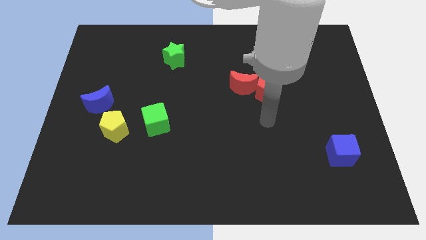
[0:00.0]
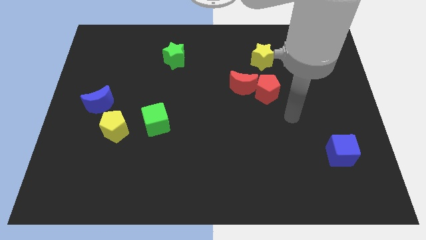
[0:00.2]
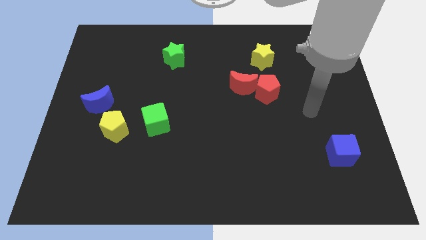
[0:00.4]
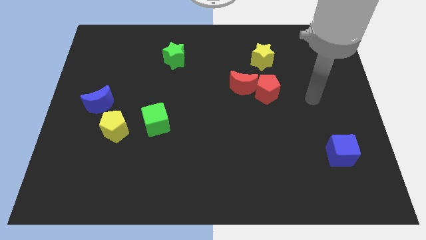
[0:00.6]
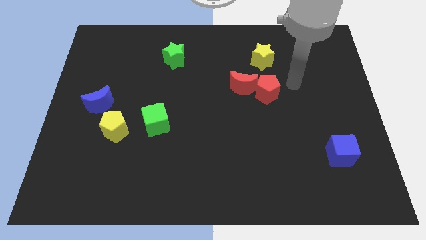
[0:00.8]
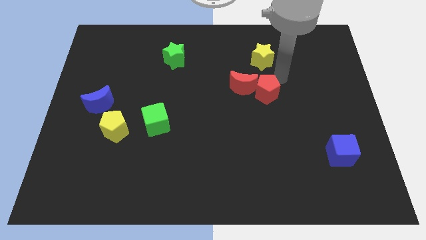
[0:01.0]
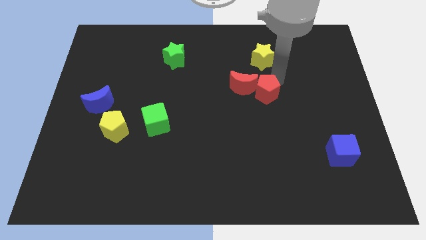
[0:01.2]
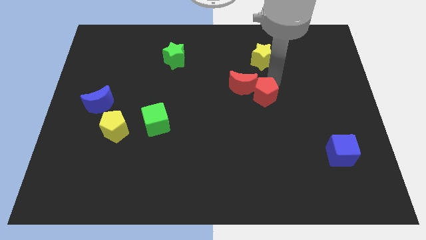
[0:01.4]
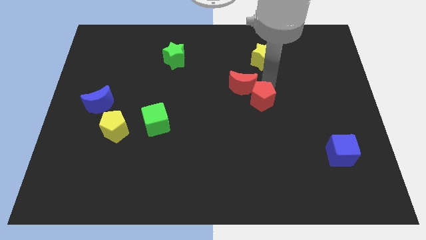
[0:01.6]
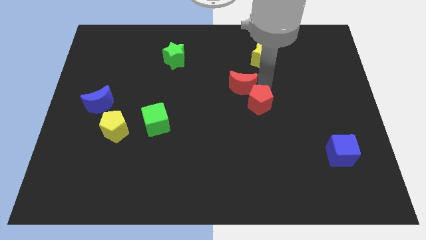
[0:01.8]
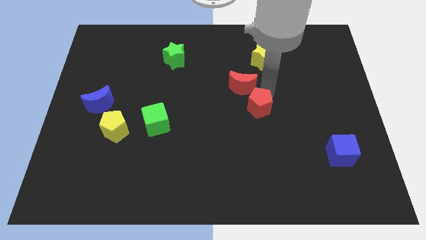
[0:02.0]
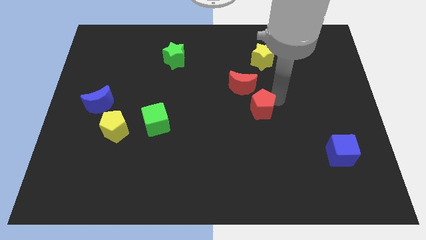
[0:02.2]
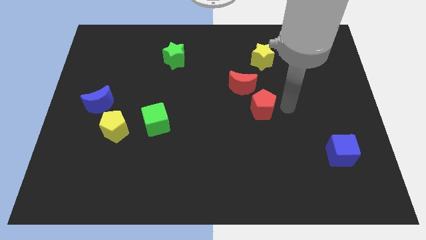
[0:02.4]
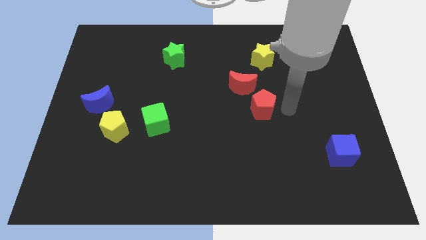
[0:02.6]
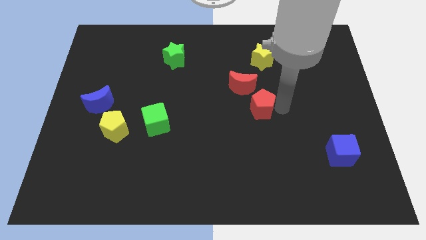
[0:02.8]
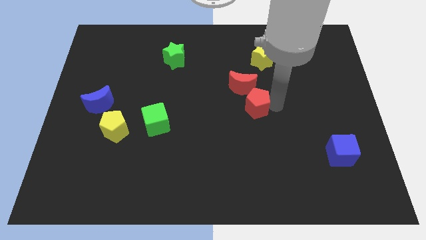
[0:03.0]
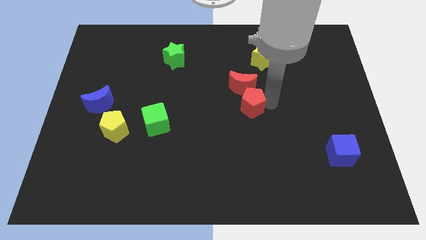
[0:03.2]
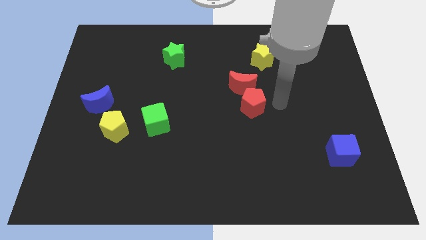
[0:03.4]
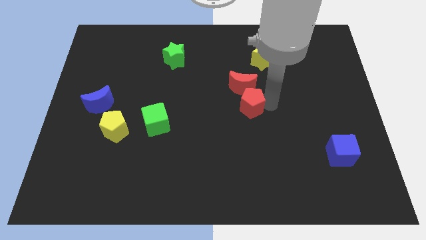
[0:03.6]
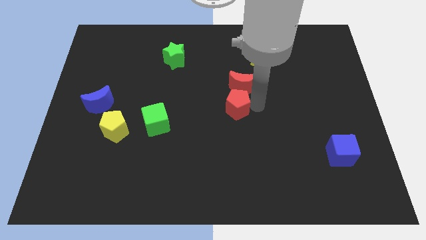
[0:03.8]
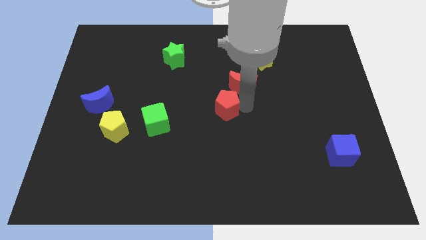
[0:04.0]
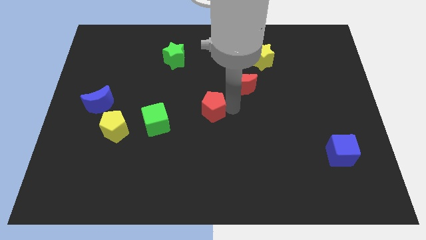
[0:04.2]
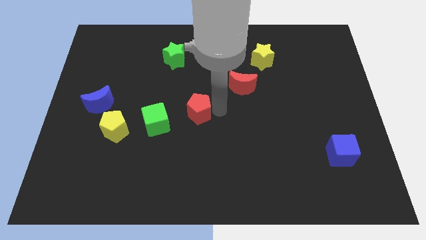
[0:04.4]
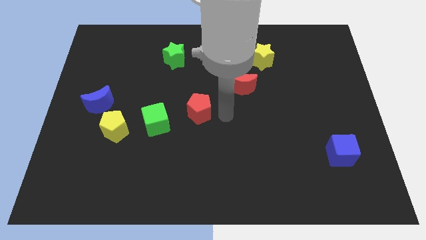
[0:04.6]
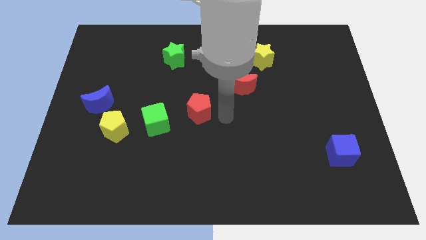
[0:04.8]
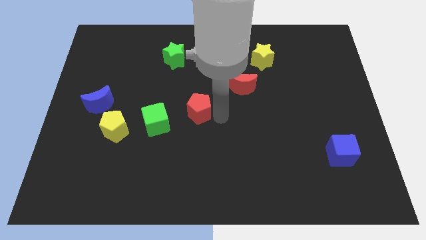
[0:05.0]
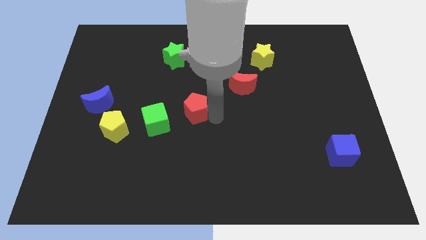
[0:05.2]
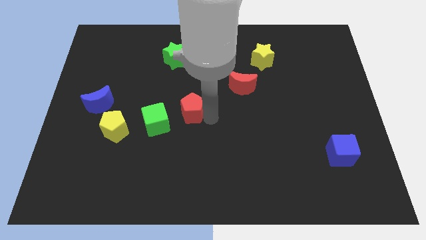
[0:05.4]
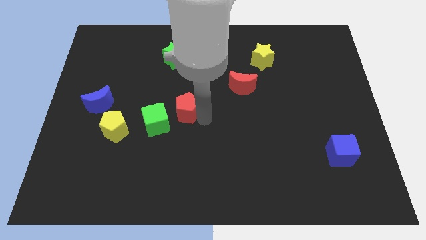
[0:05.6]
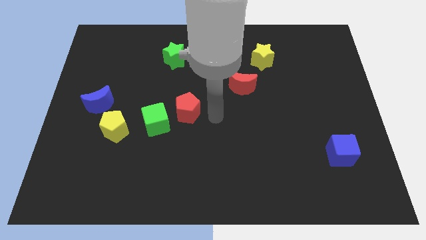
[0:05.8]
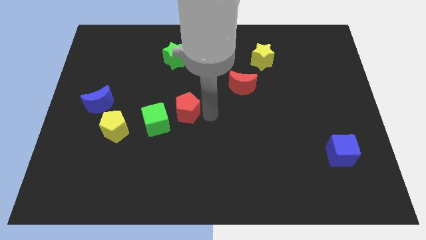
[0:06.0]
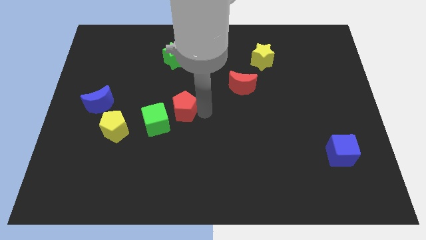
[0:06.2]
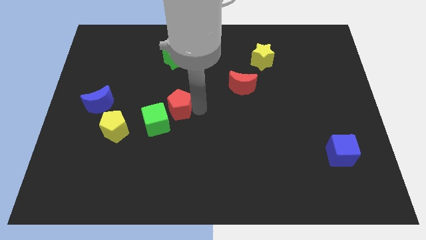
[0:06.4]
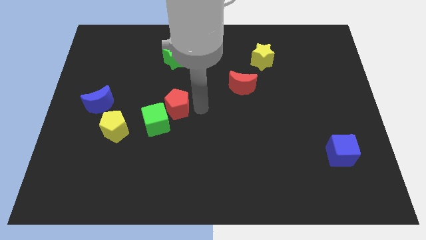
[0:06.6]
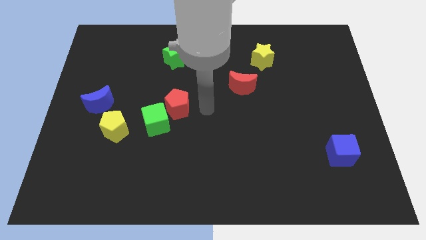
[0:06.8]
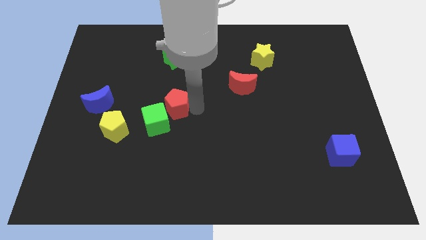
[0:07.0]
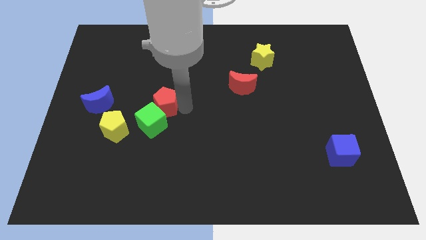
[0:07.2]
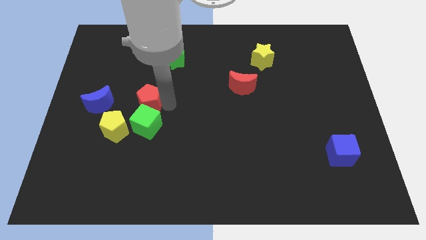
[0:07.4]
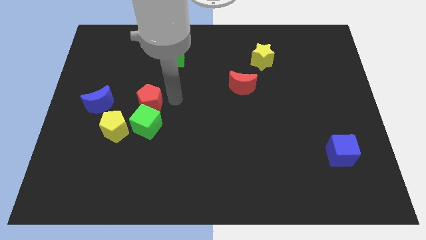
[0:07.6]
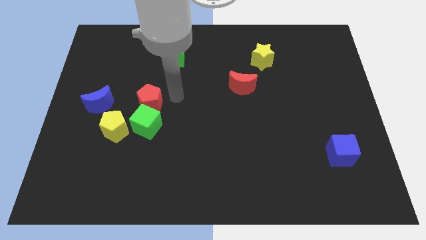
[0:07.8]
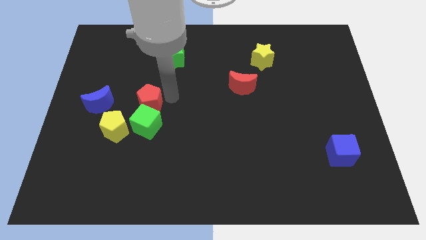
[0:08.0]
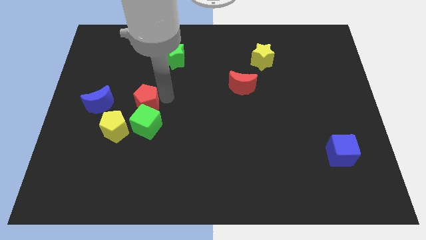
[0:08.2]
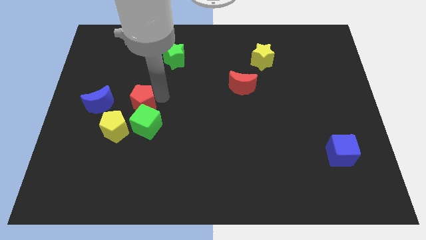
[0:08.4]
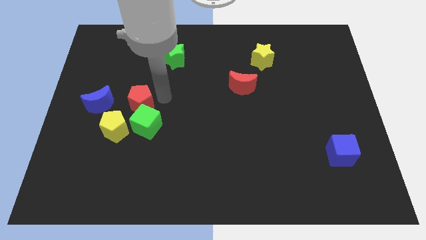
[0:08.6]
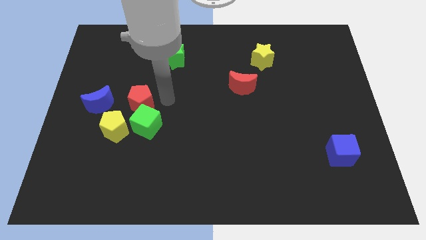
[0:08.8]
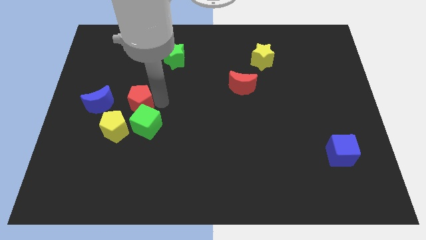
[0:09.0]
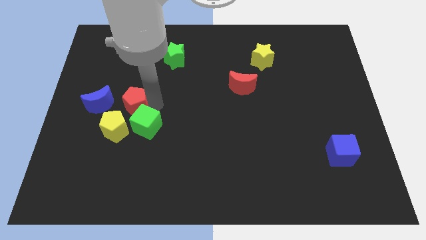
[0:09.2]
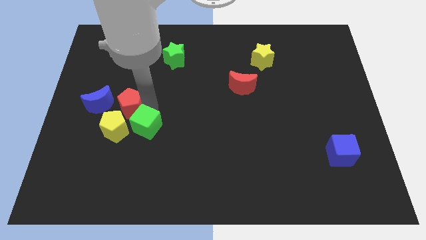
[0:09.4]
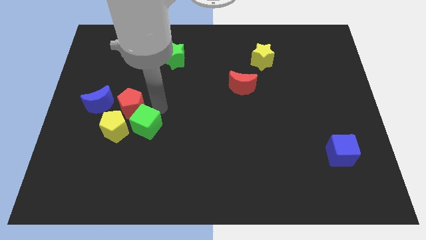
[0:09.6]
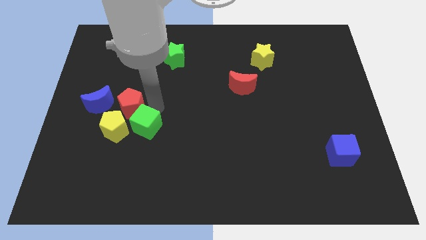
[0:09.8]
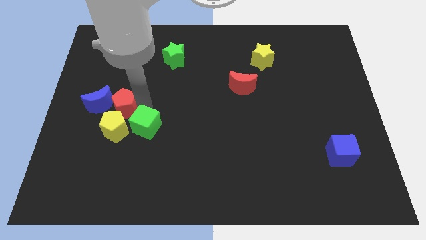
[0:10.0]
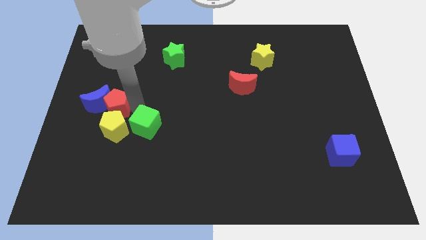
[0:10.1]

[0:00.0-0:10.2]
move the red pentagon towards the blue moon

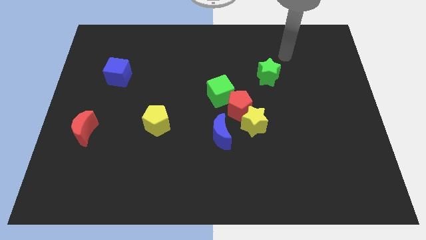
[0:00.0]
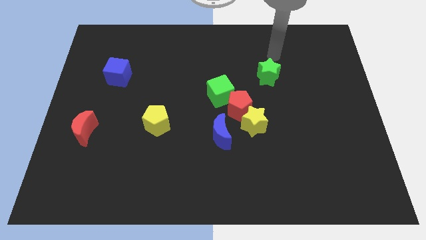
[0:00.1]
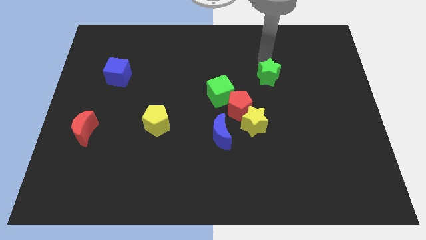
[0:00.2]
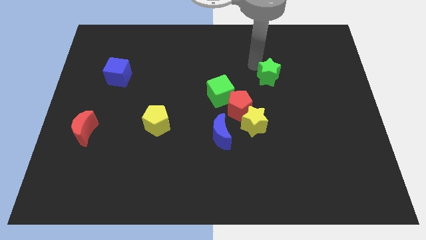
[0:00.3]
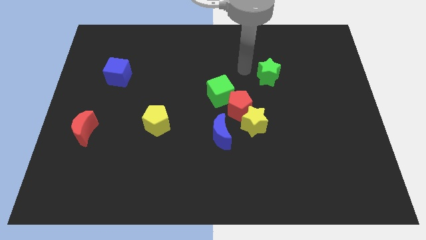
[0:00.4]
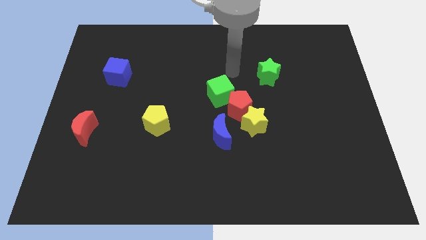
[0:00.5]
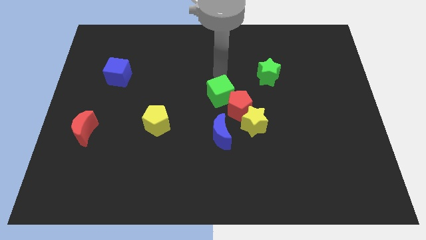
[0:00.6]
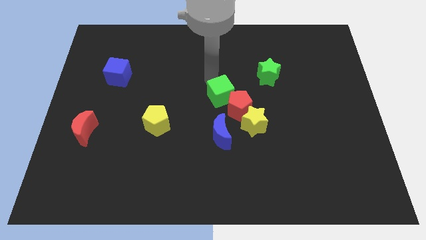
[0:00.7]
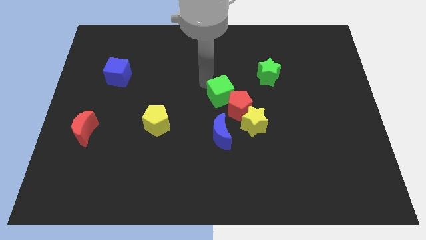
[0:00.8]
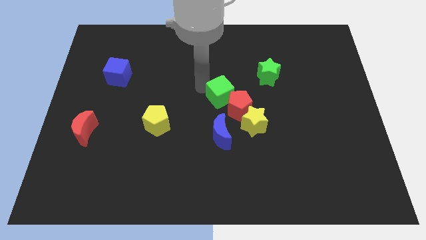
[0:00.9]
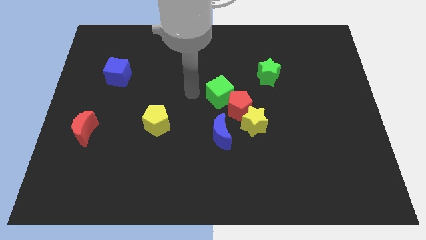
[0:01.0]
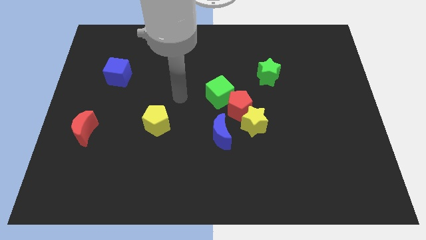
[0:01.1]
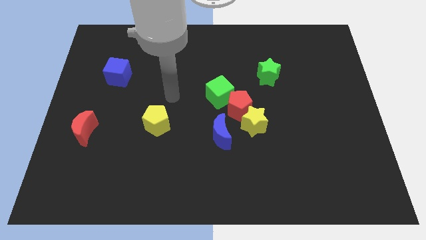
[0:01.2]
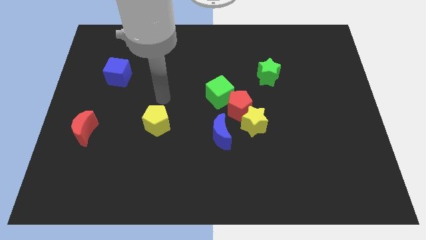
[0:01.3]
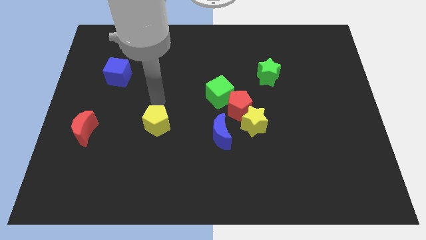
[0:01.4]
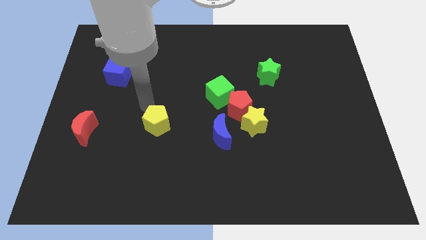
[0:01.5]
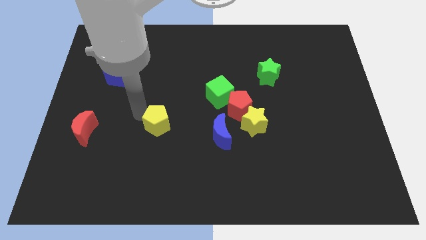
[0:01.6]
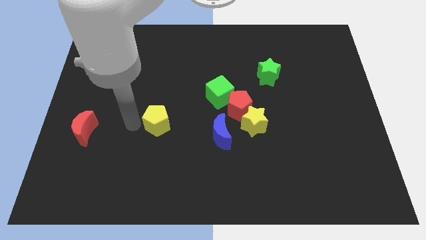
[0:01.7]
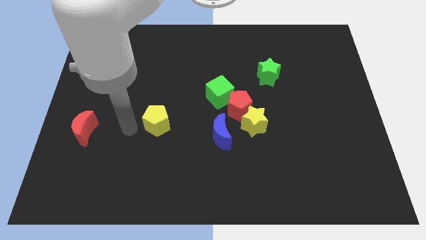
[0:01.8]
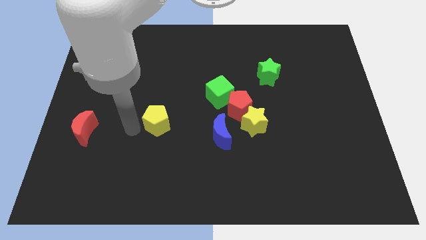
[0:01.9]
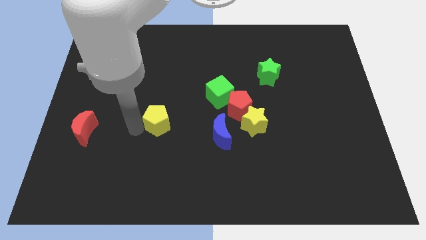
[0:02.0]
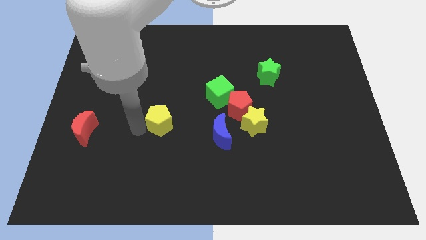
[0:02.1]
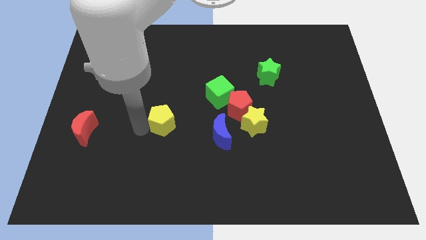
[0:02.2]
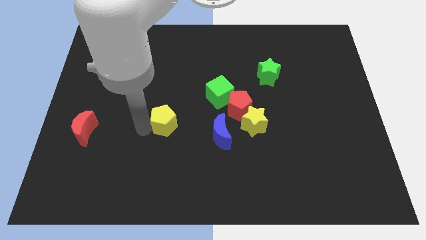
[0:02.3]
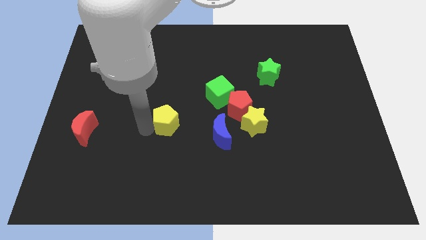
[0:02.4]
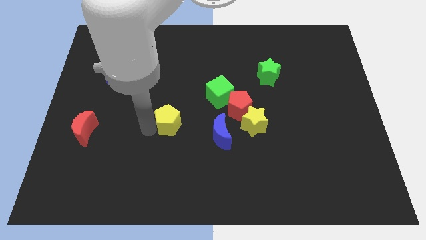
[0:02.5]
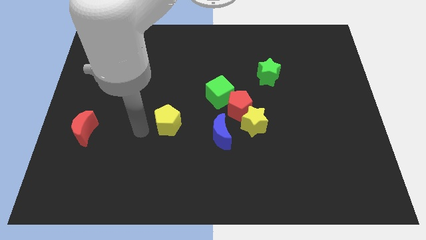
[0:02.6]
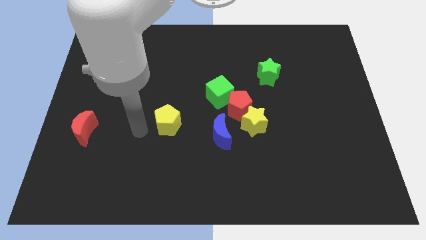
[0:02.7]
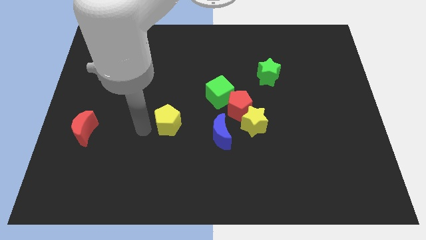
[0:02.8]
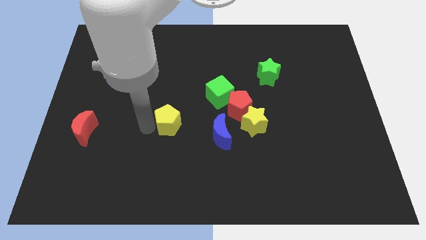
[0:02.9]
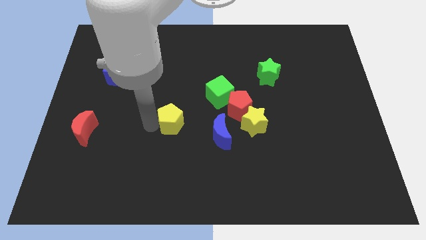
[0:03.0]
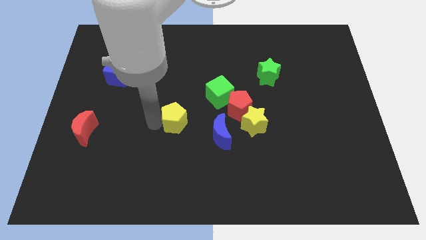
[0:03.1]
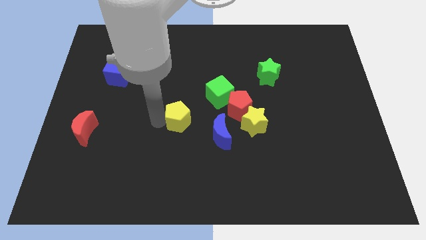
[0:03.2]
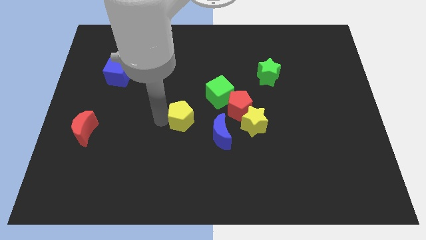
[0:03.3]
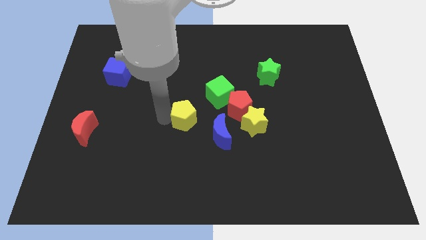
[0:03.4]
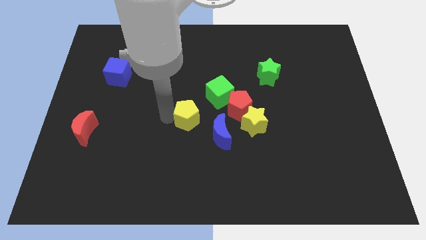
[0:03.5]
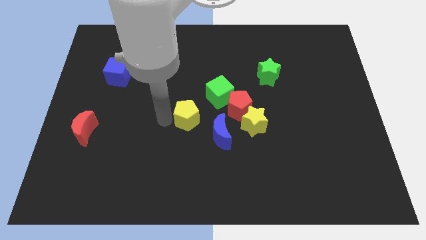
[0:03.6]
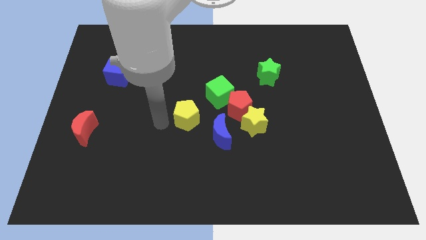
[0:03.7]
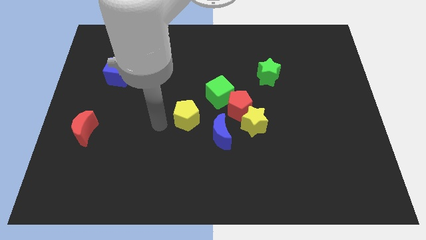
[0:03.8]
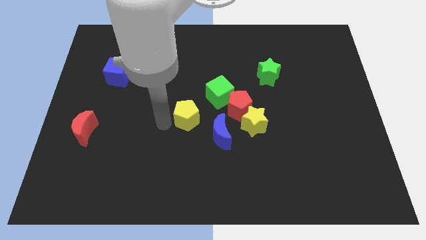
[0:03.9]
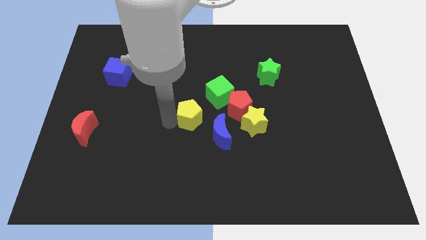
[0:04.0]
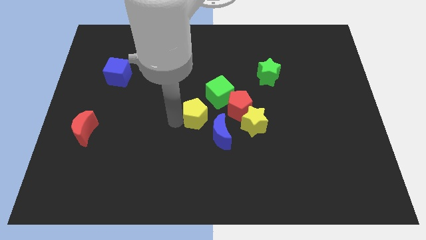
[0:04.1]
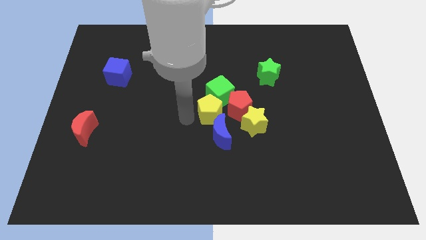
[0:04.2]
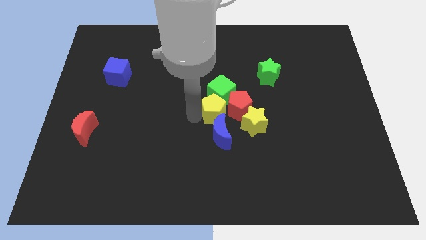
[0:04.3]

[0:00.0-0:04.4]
move the yellow pentagon to the red pentagon
